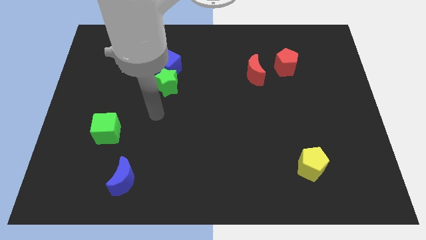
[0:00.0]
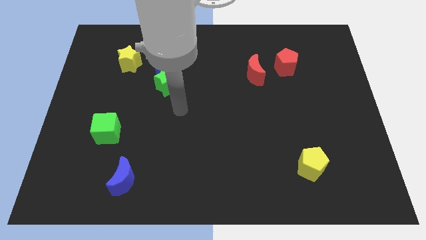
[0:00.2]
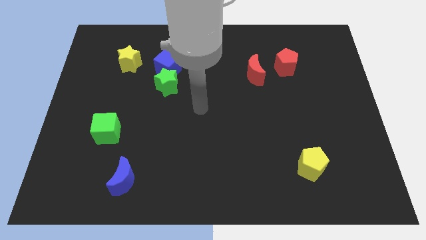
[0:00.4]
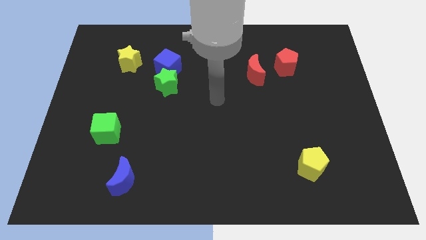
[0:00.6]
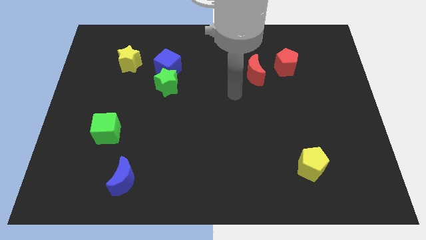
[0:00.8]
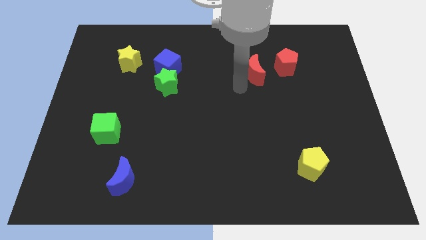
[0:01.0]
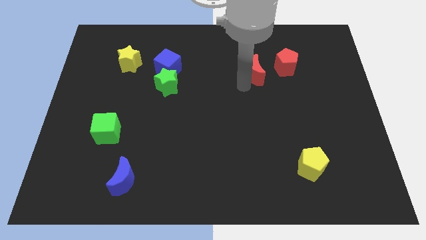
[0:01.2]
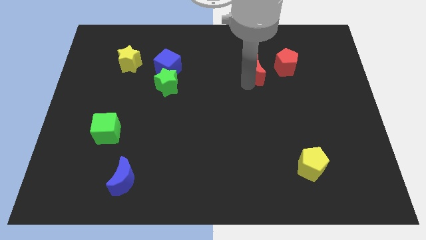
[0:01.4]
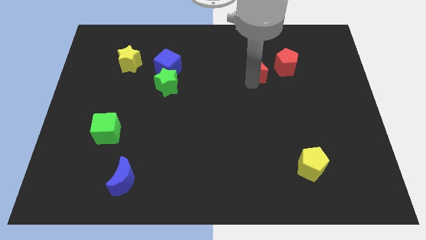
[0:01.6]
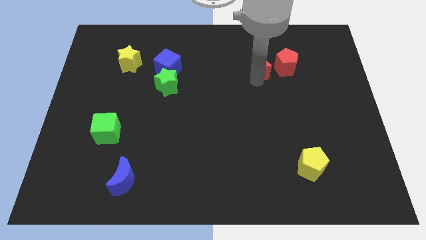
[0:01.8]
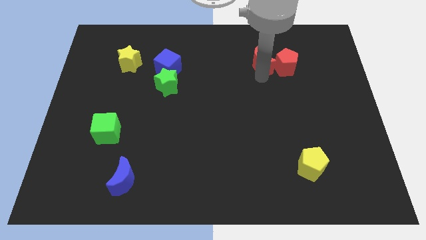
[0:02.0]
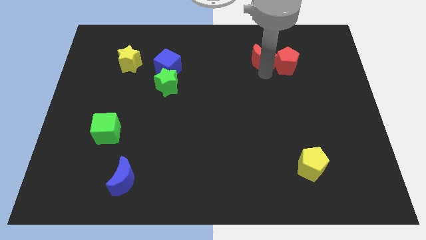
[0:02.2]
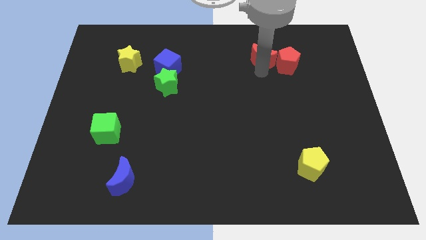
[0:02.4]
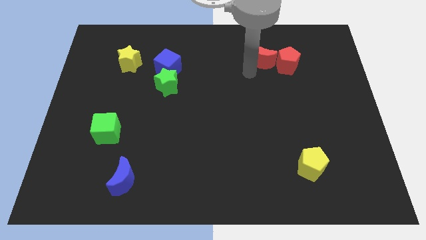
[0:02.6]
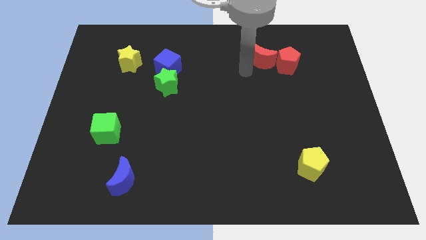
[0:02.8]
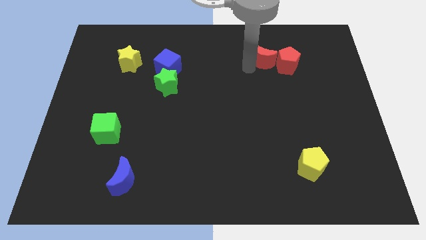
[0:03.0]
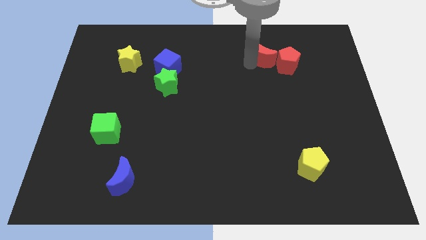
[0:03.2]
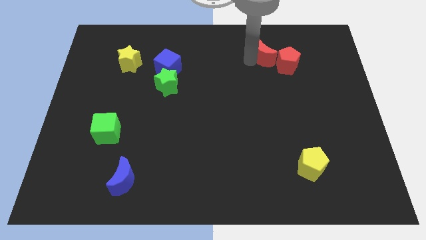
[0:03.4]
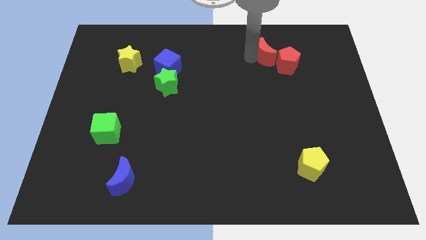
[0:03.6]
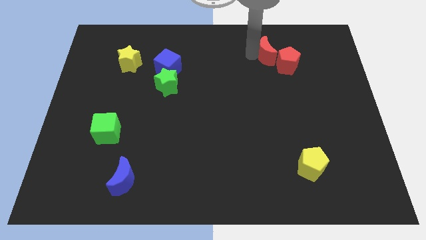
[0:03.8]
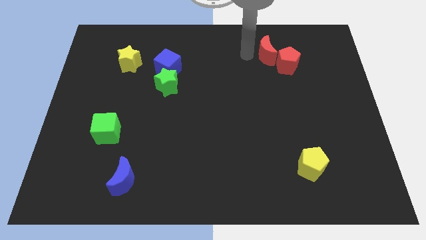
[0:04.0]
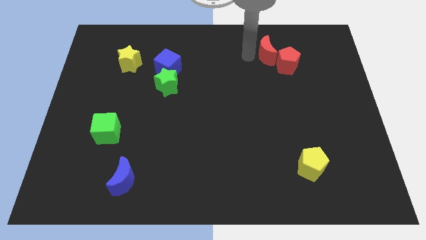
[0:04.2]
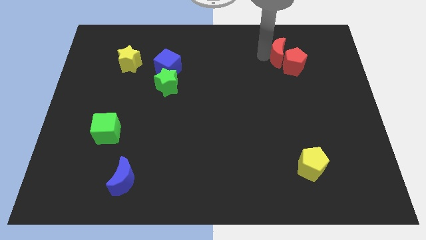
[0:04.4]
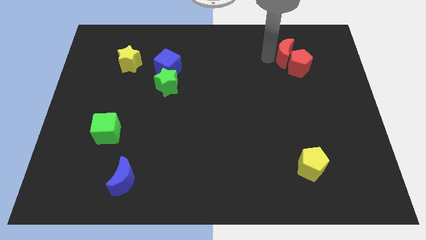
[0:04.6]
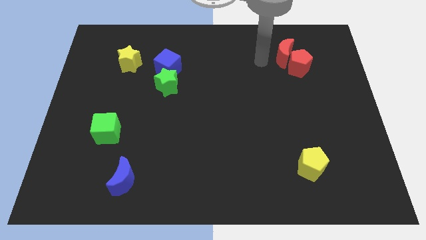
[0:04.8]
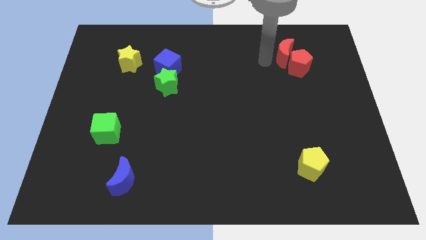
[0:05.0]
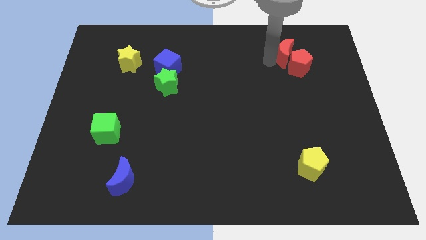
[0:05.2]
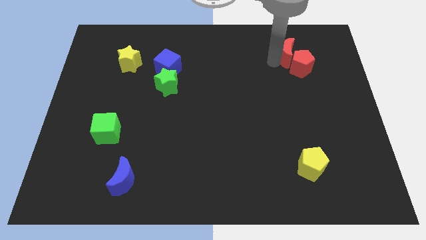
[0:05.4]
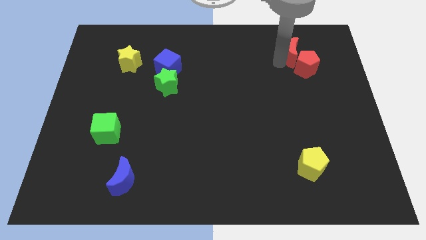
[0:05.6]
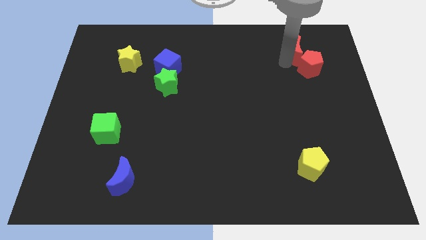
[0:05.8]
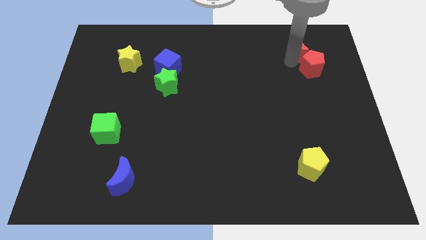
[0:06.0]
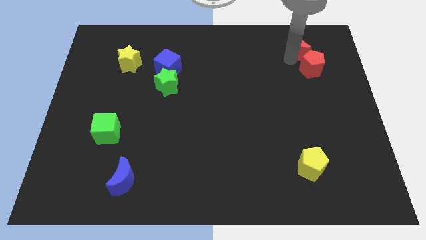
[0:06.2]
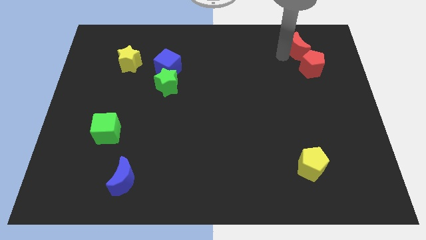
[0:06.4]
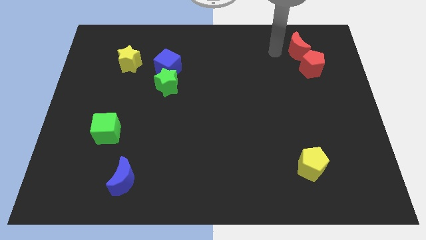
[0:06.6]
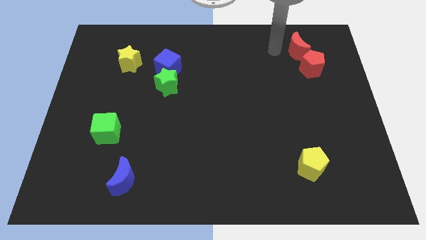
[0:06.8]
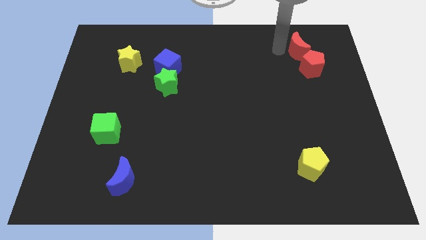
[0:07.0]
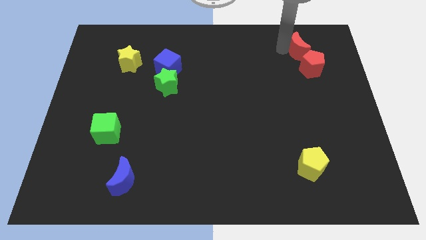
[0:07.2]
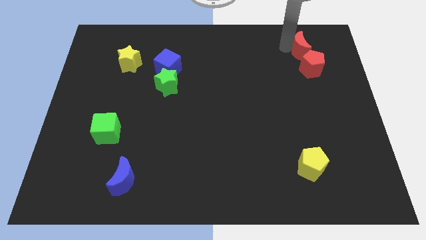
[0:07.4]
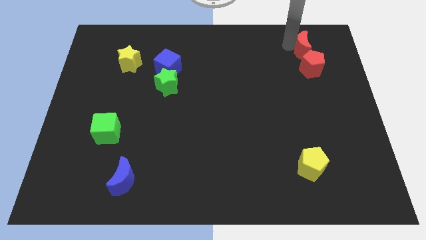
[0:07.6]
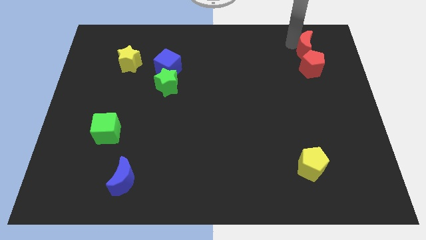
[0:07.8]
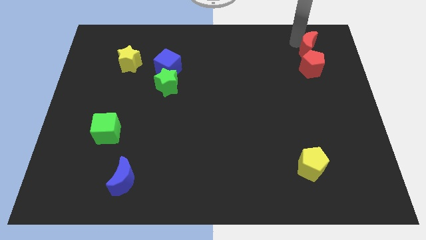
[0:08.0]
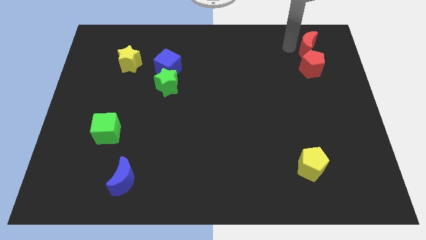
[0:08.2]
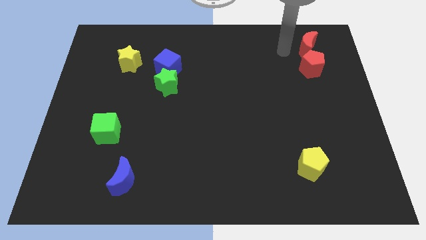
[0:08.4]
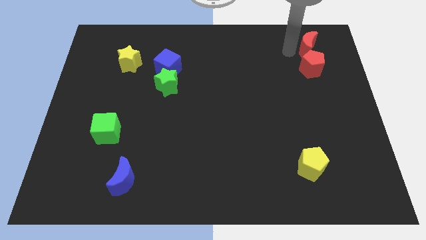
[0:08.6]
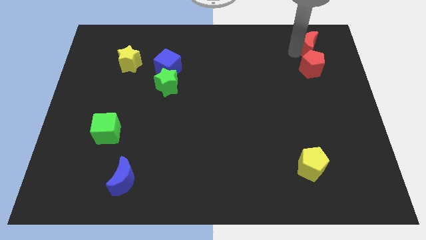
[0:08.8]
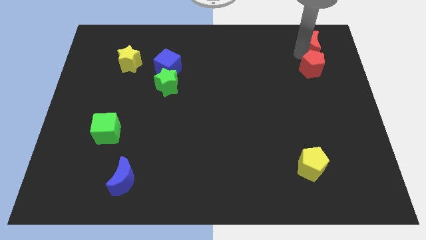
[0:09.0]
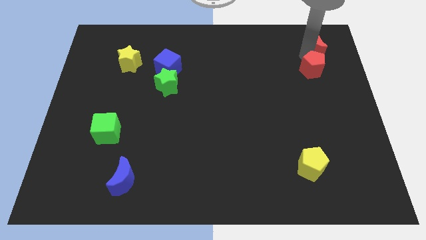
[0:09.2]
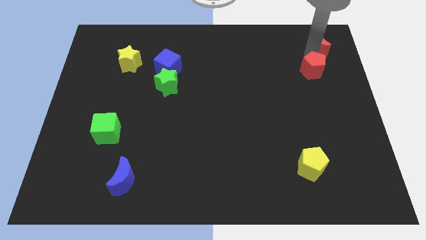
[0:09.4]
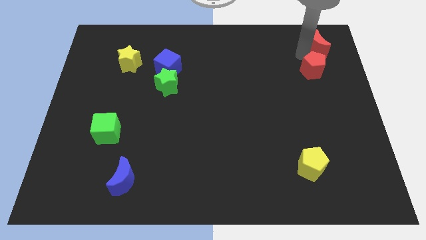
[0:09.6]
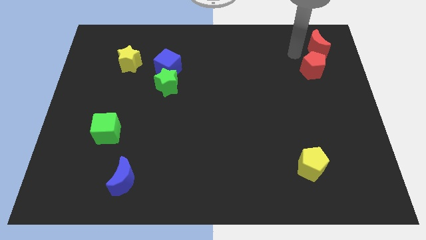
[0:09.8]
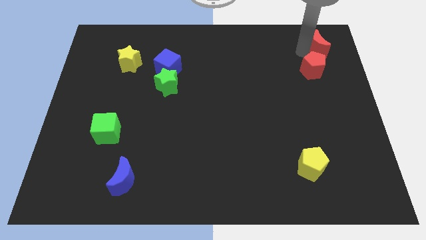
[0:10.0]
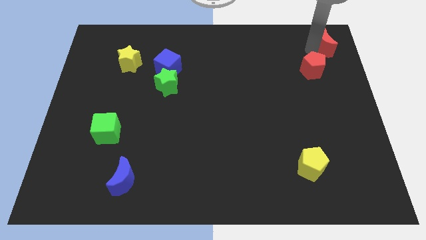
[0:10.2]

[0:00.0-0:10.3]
put the red moon to the top right

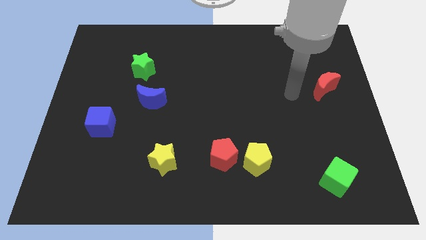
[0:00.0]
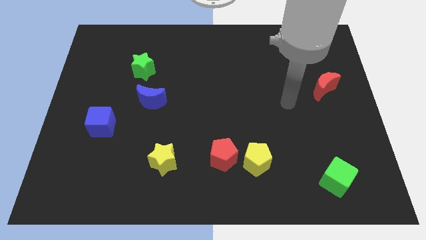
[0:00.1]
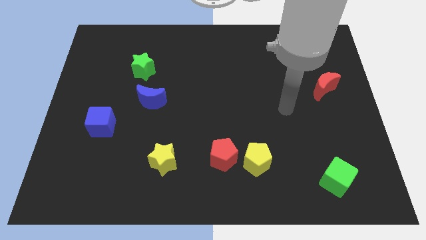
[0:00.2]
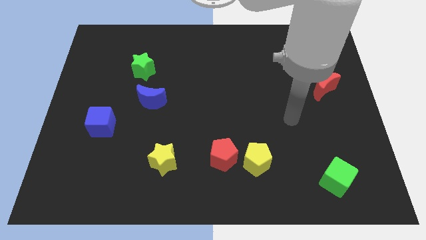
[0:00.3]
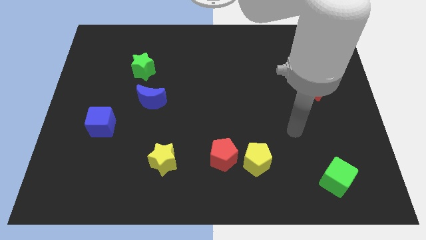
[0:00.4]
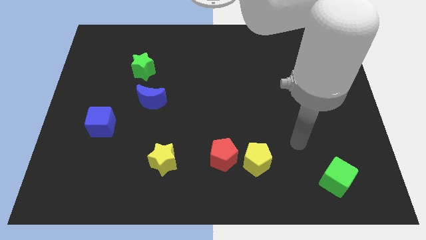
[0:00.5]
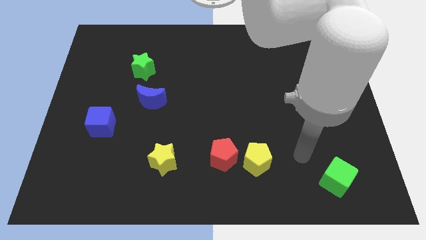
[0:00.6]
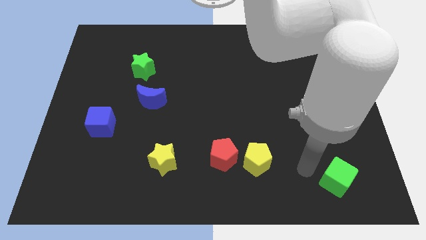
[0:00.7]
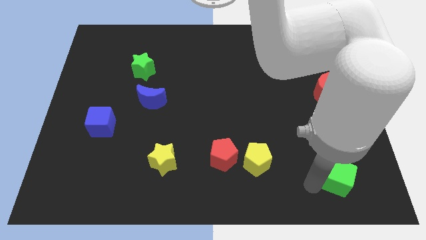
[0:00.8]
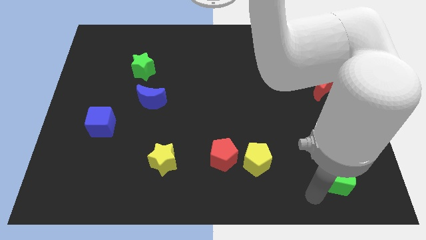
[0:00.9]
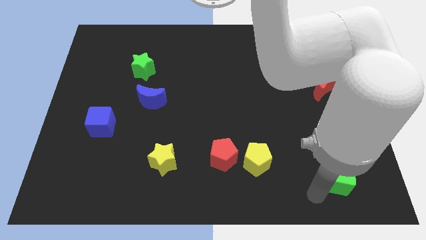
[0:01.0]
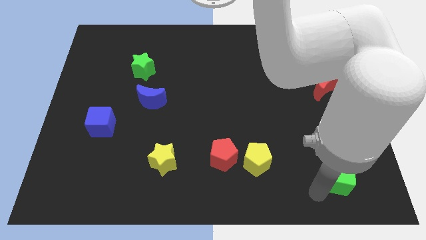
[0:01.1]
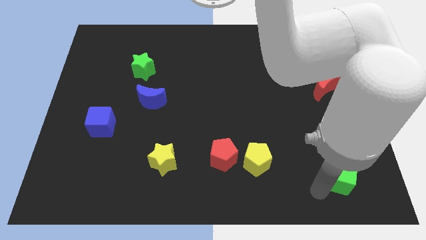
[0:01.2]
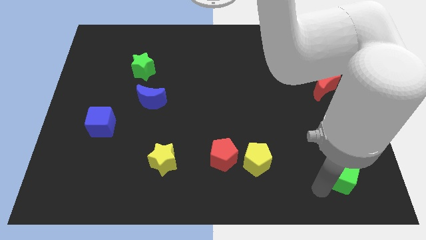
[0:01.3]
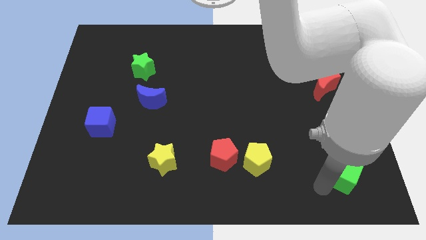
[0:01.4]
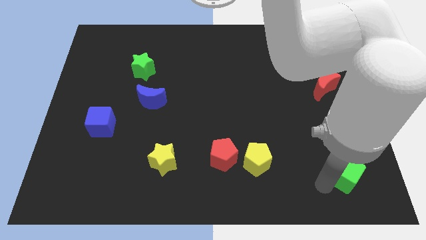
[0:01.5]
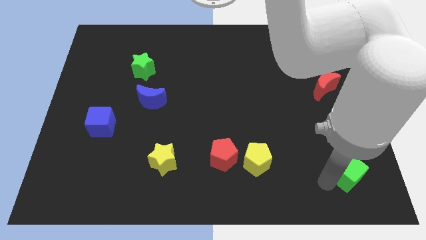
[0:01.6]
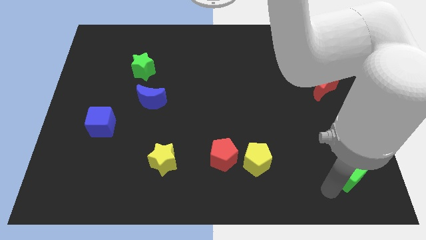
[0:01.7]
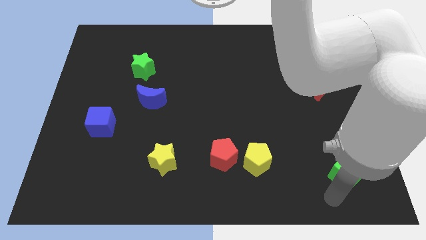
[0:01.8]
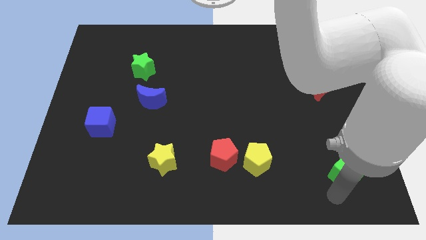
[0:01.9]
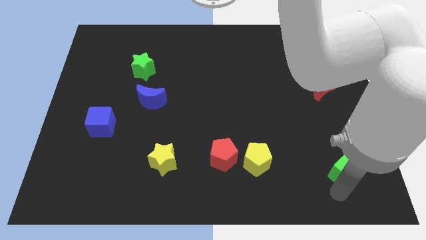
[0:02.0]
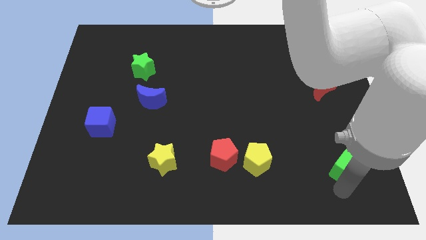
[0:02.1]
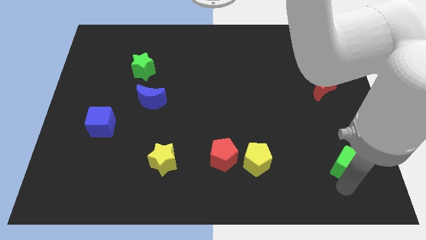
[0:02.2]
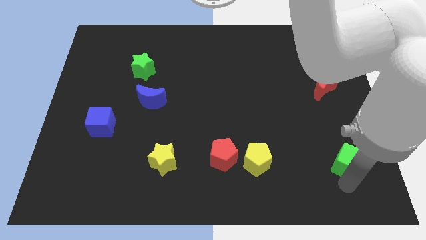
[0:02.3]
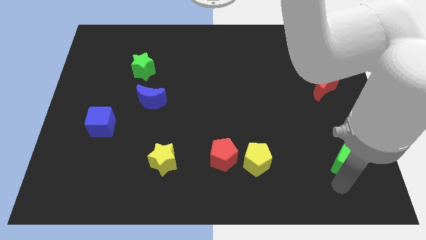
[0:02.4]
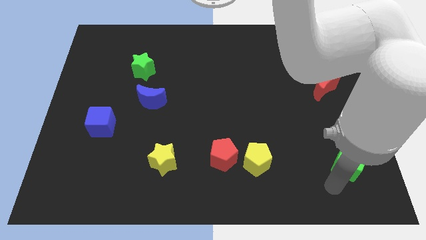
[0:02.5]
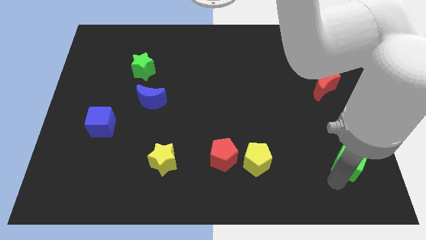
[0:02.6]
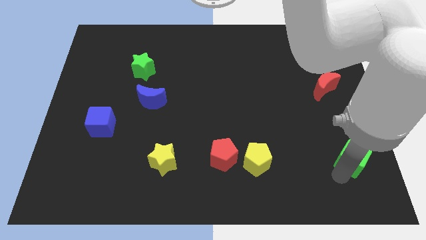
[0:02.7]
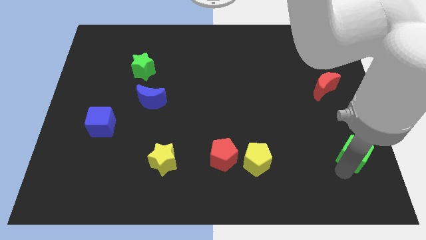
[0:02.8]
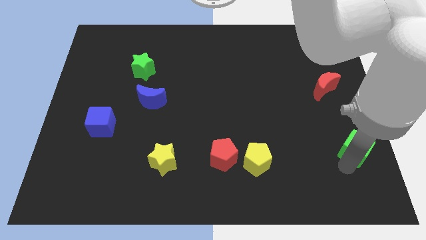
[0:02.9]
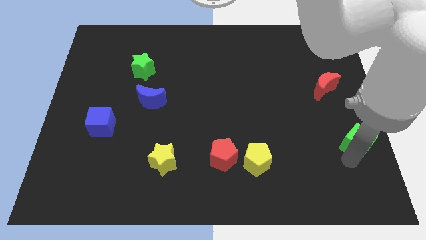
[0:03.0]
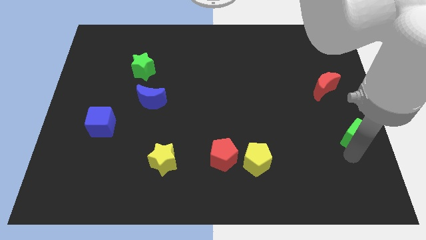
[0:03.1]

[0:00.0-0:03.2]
push the green cube to the right side of the board
